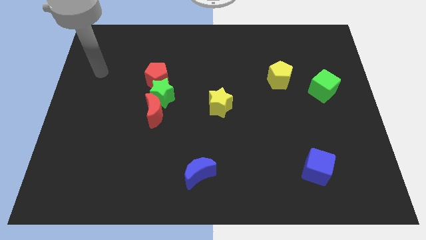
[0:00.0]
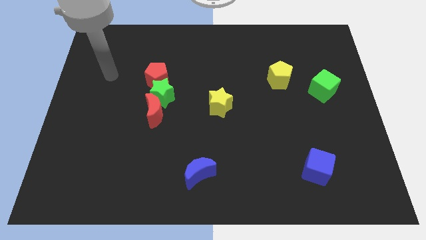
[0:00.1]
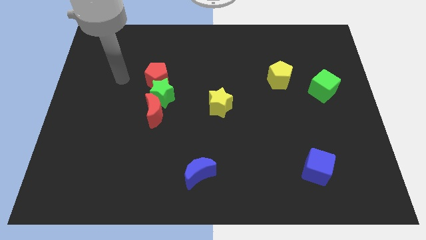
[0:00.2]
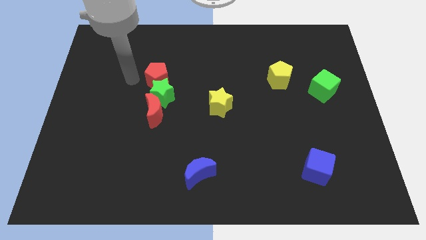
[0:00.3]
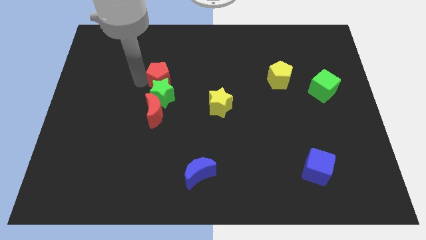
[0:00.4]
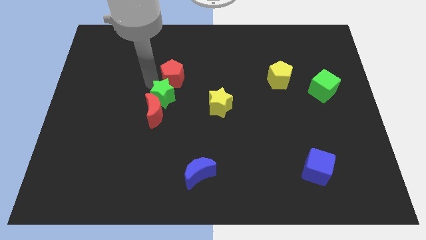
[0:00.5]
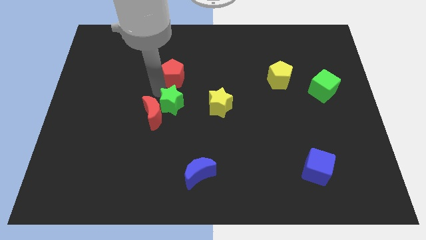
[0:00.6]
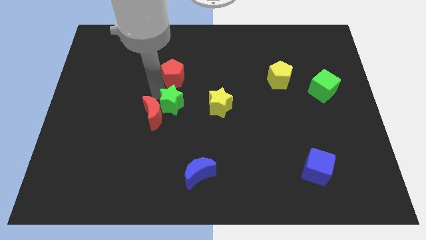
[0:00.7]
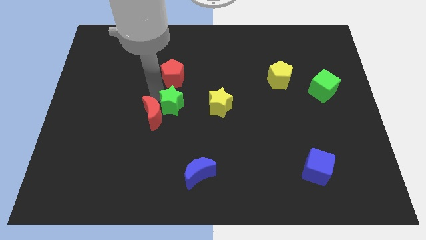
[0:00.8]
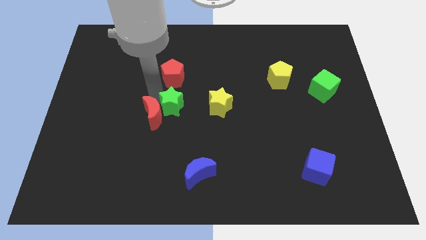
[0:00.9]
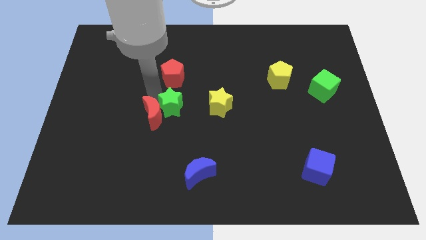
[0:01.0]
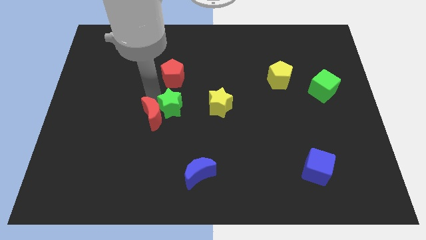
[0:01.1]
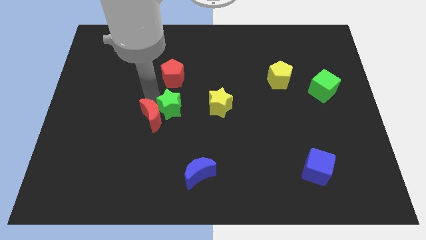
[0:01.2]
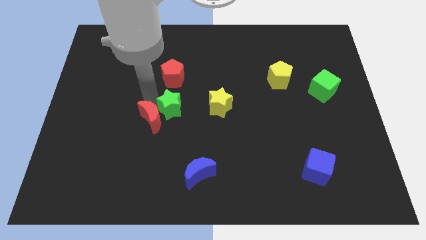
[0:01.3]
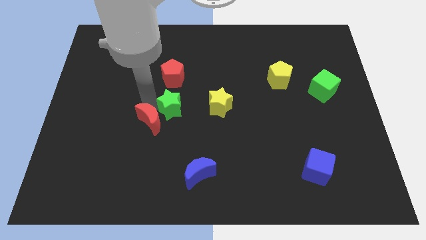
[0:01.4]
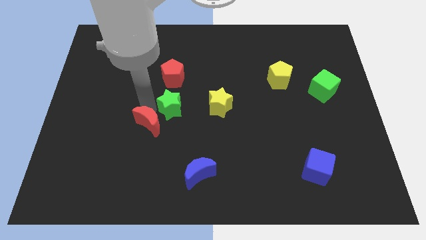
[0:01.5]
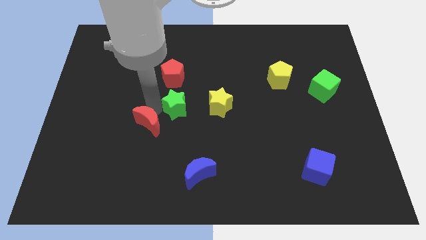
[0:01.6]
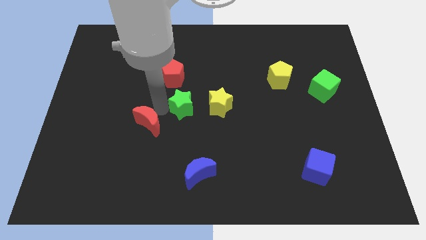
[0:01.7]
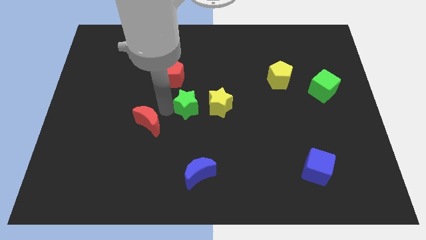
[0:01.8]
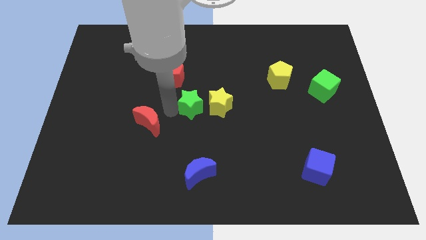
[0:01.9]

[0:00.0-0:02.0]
move the red moon away from the green star

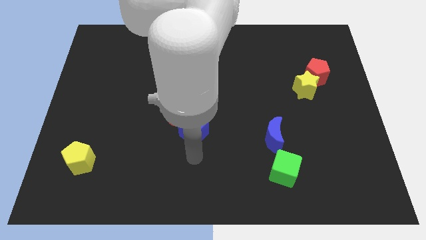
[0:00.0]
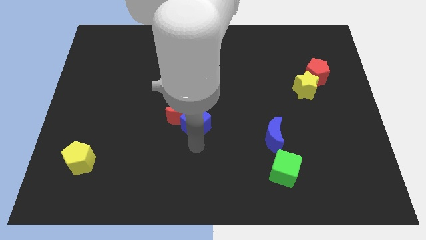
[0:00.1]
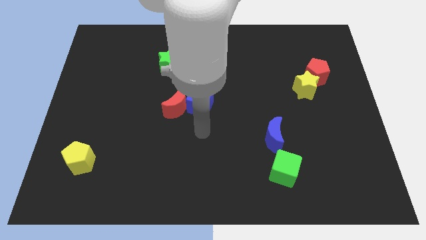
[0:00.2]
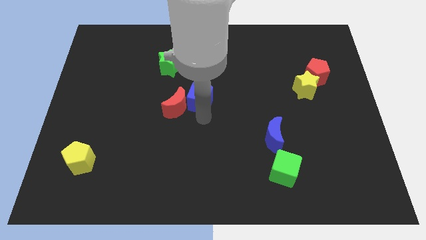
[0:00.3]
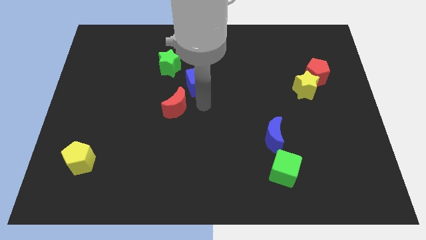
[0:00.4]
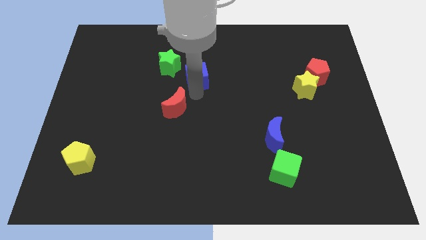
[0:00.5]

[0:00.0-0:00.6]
separate the red moon from the blue cube

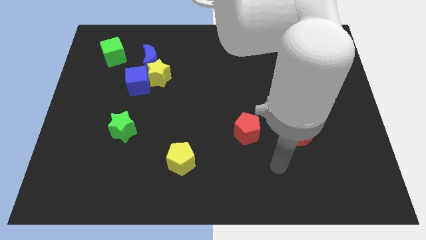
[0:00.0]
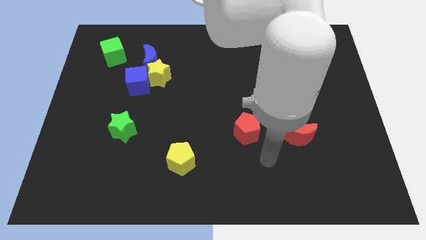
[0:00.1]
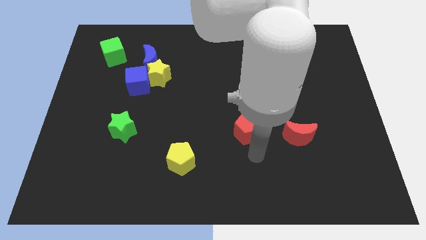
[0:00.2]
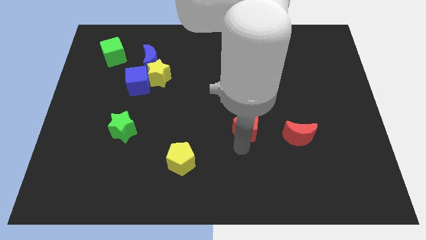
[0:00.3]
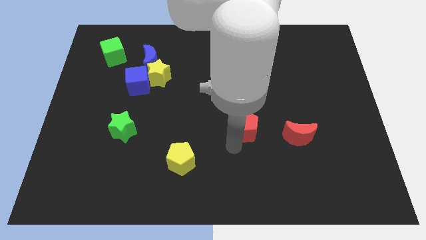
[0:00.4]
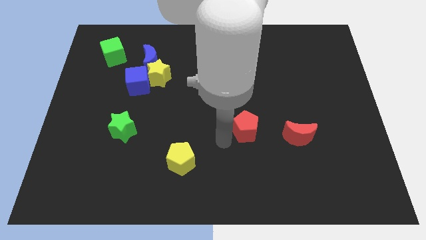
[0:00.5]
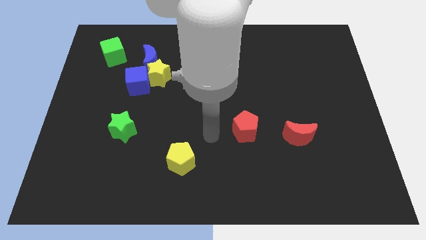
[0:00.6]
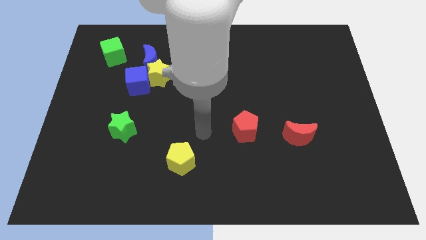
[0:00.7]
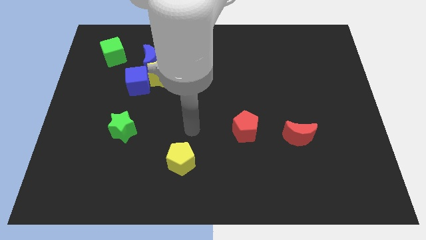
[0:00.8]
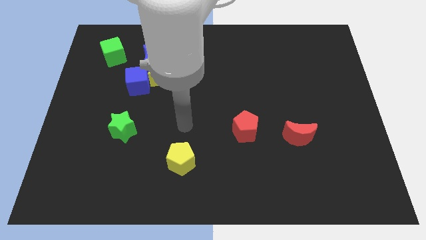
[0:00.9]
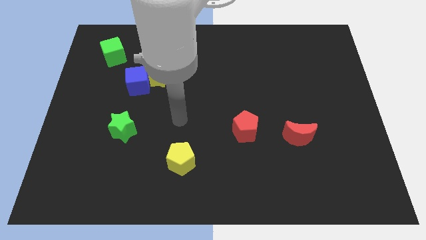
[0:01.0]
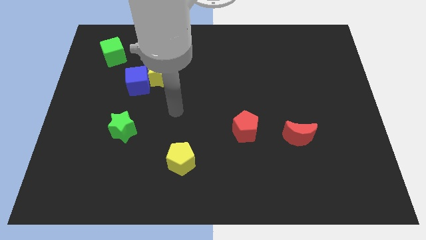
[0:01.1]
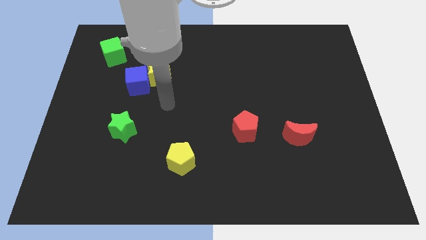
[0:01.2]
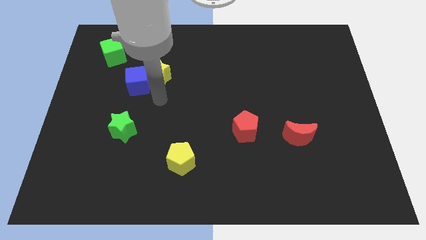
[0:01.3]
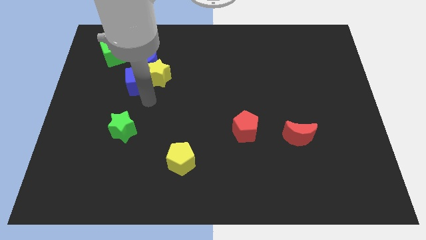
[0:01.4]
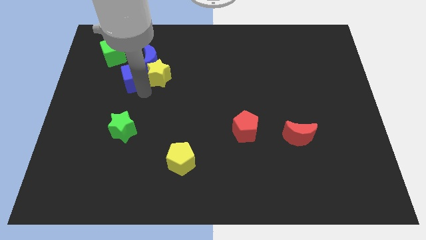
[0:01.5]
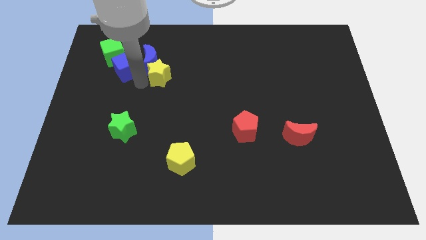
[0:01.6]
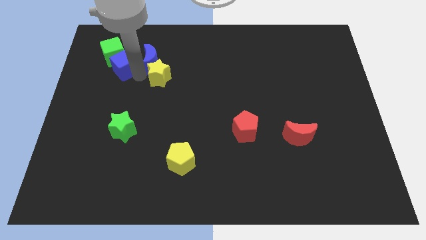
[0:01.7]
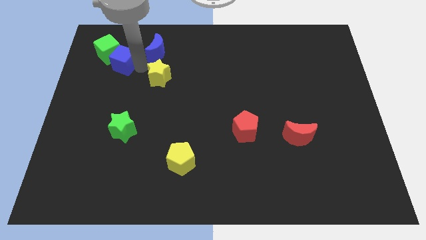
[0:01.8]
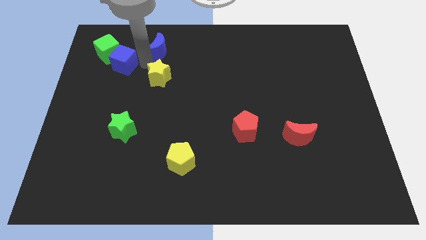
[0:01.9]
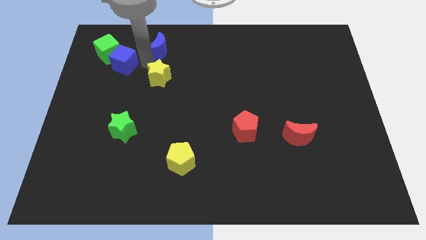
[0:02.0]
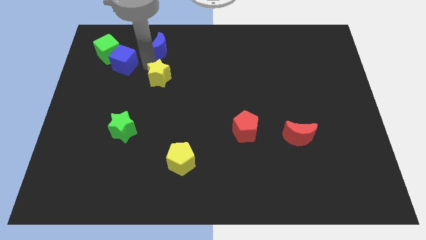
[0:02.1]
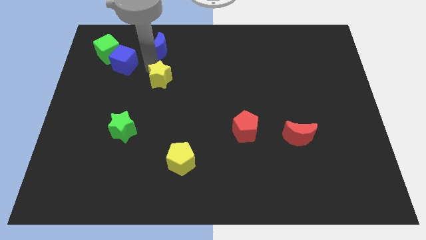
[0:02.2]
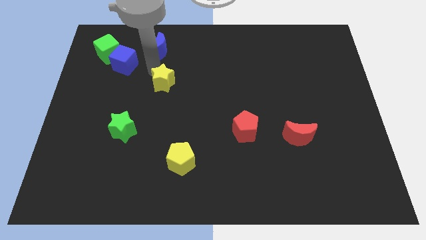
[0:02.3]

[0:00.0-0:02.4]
move the yellow star away from the blue cube and blue moon

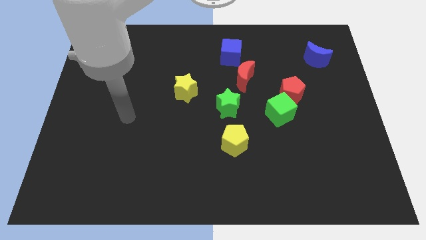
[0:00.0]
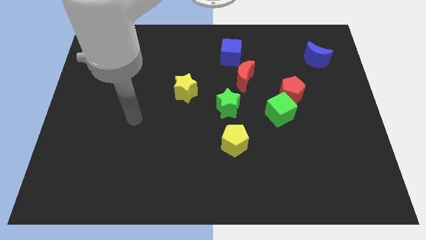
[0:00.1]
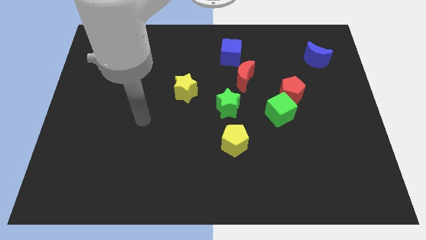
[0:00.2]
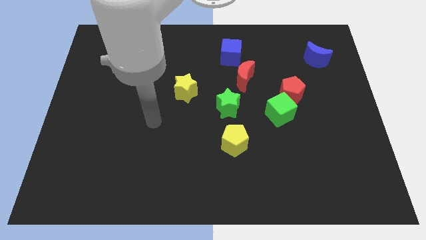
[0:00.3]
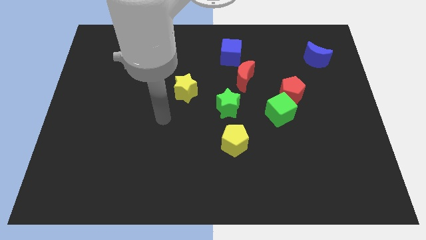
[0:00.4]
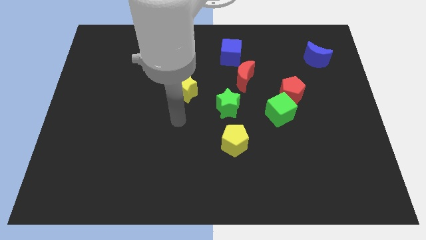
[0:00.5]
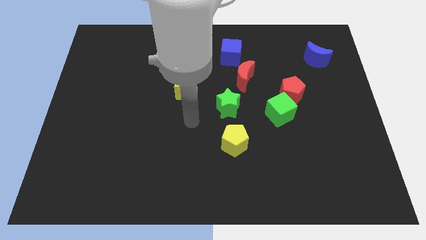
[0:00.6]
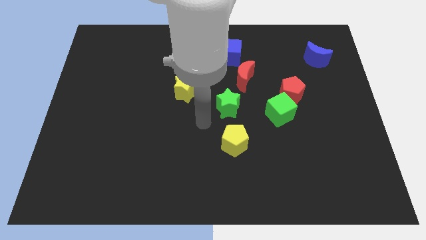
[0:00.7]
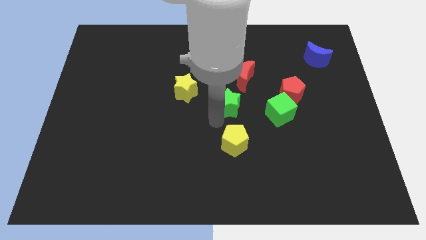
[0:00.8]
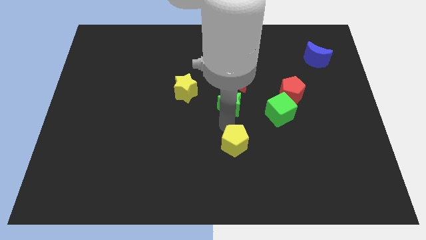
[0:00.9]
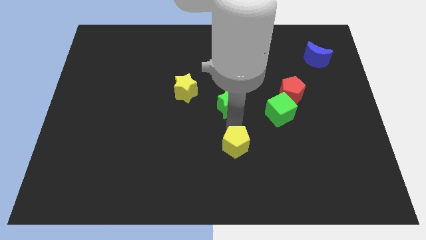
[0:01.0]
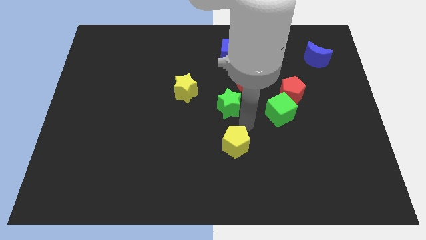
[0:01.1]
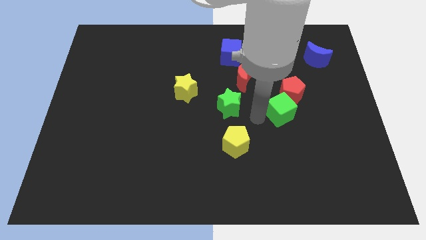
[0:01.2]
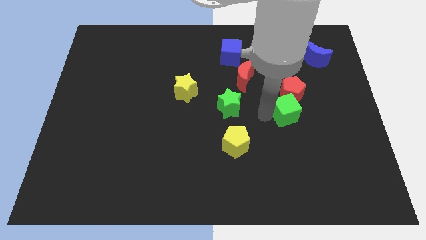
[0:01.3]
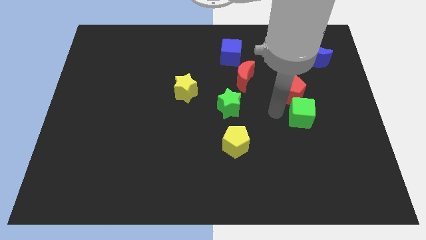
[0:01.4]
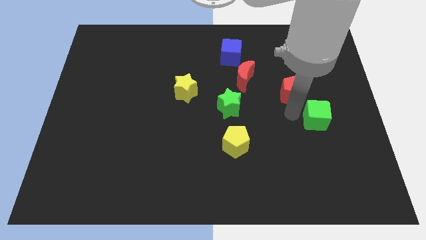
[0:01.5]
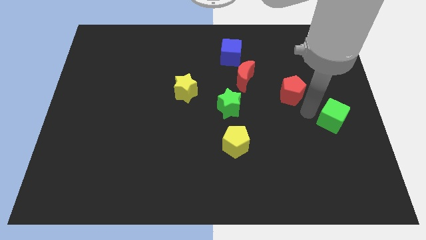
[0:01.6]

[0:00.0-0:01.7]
move the red pentagon away from the green cube

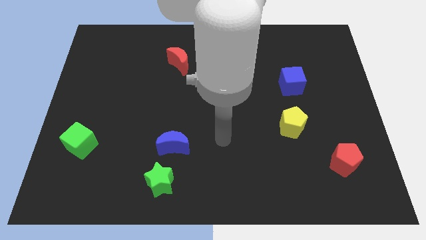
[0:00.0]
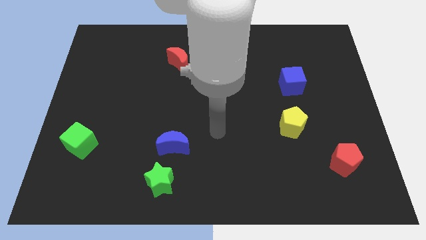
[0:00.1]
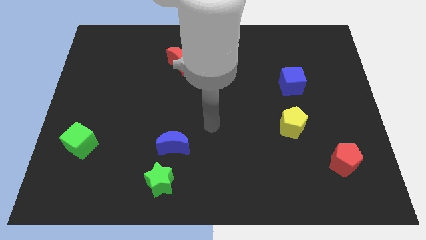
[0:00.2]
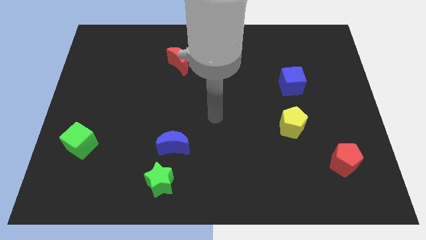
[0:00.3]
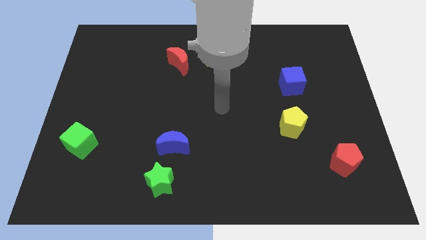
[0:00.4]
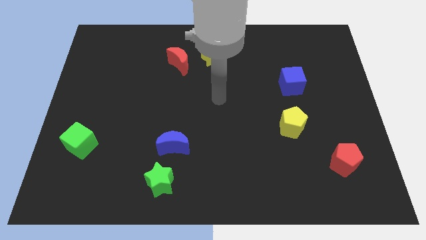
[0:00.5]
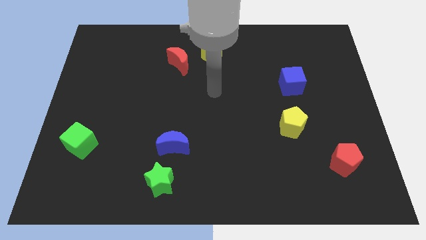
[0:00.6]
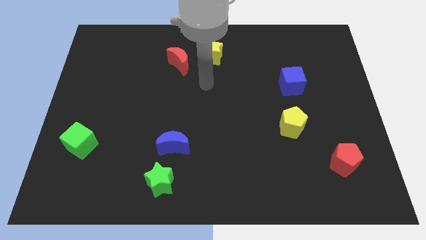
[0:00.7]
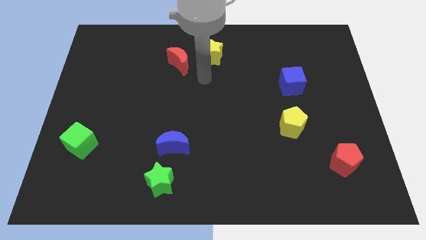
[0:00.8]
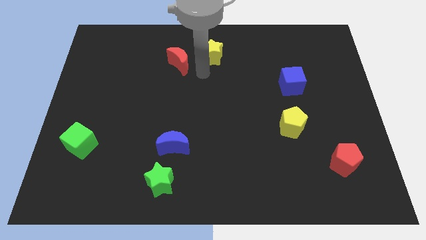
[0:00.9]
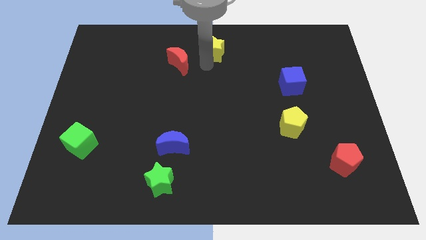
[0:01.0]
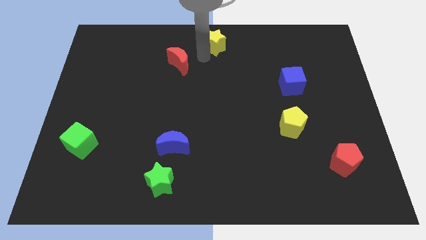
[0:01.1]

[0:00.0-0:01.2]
pull the red moon apart from the yellow star

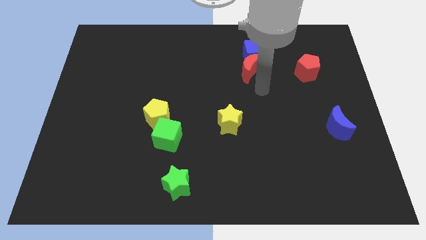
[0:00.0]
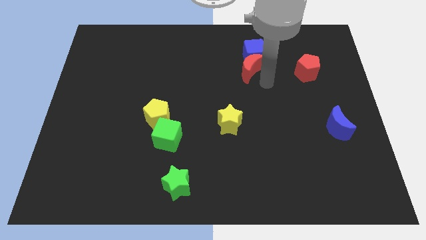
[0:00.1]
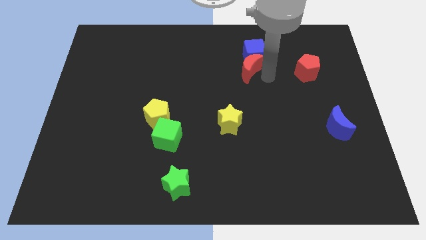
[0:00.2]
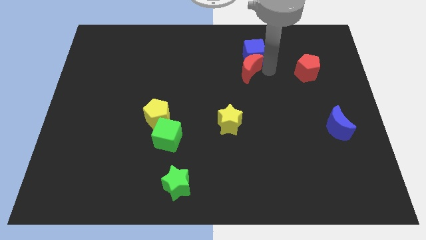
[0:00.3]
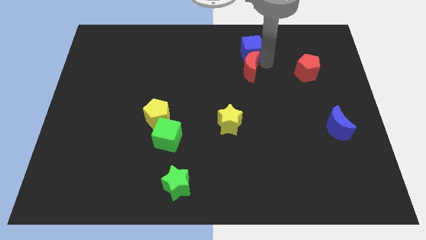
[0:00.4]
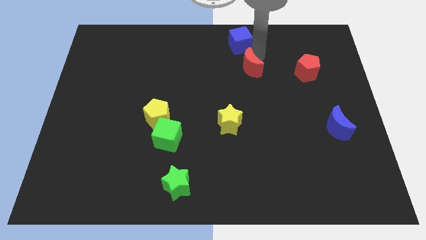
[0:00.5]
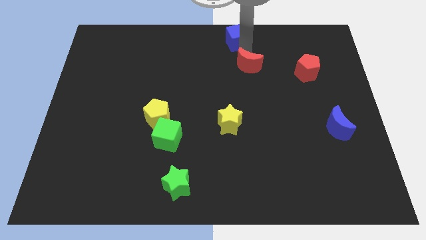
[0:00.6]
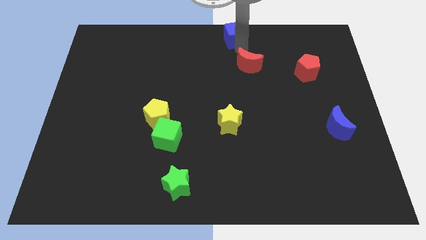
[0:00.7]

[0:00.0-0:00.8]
pull the red moon apart from the blue cube

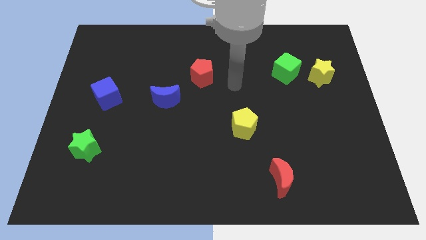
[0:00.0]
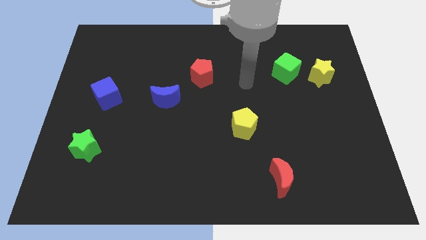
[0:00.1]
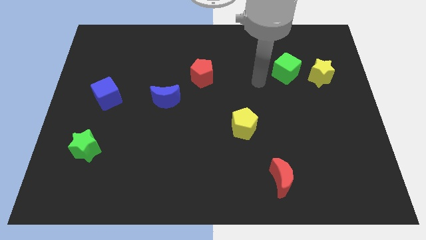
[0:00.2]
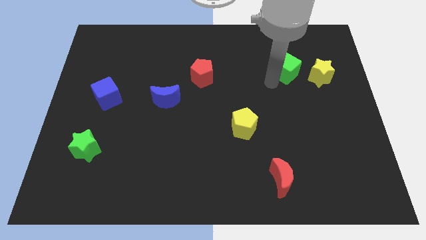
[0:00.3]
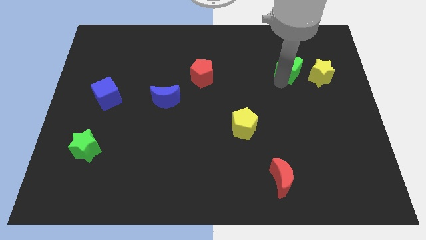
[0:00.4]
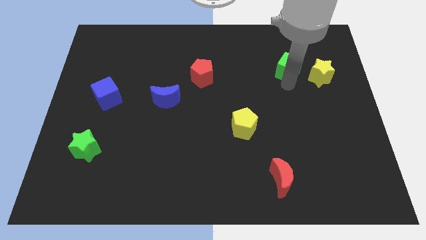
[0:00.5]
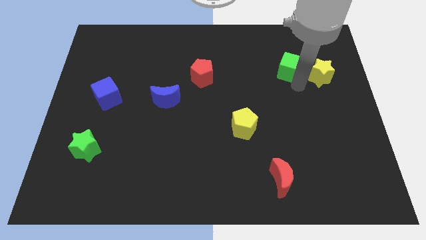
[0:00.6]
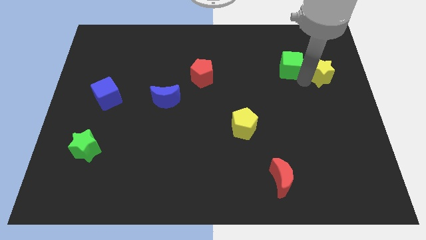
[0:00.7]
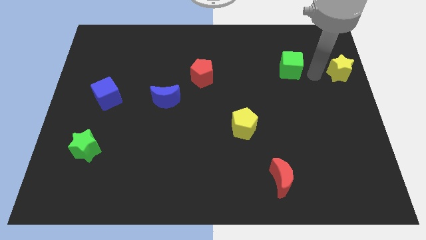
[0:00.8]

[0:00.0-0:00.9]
separate the green cube from the yellow star
